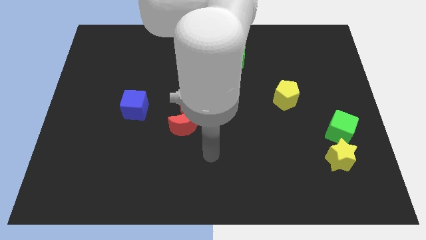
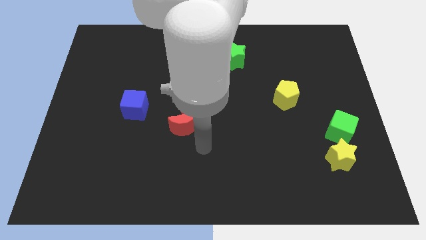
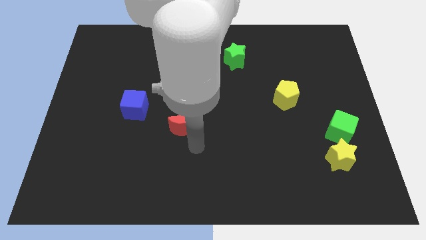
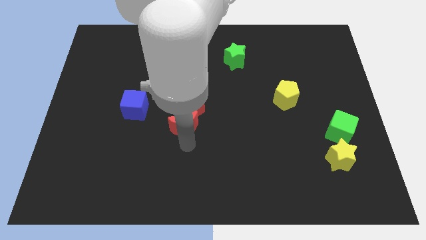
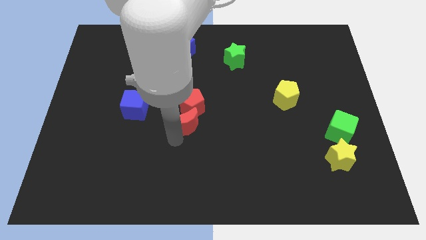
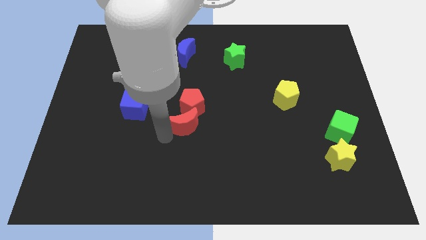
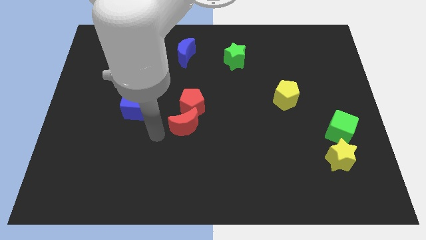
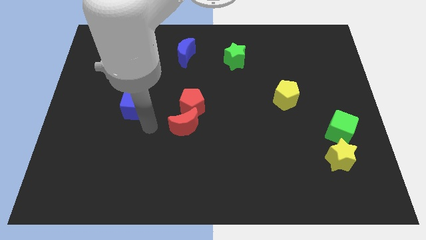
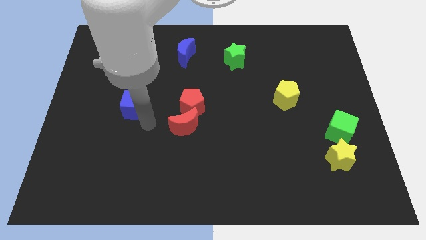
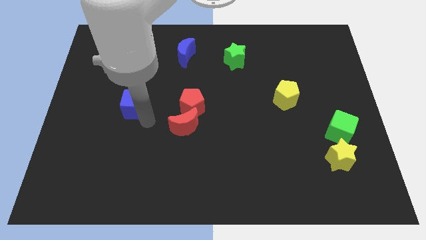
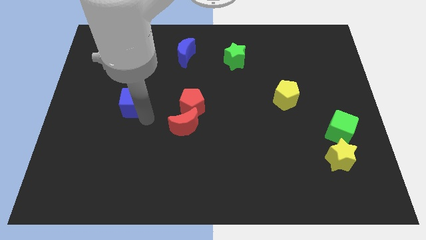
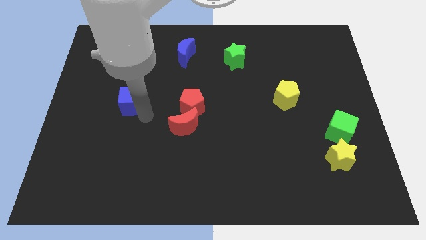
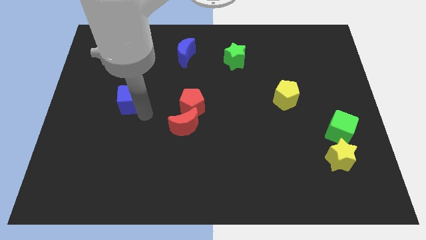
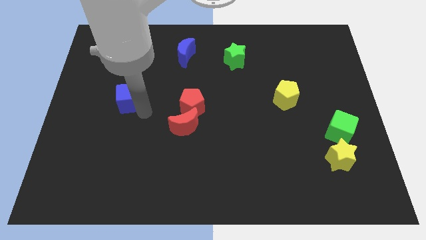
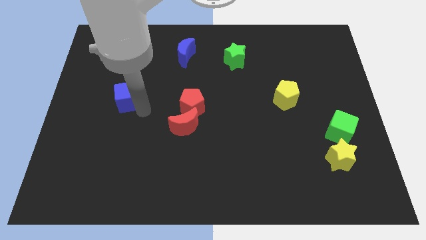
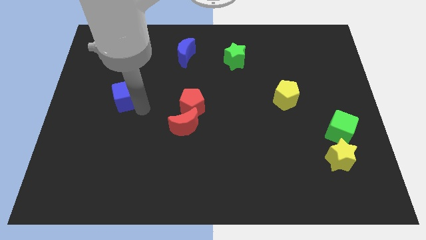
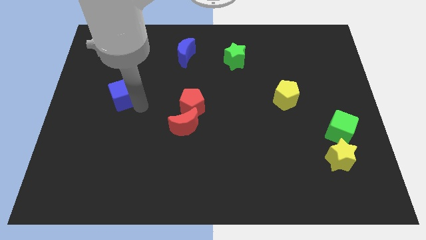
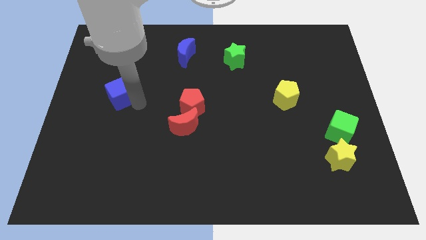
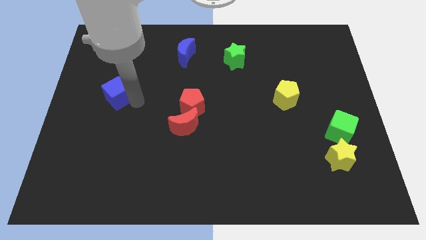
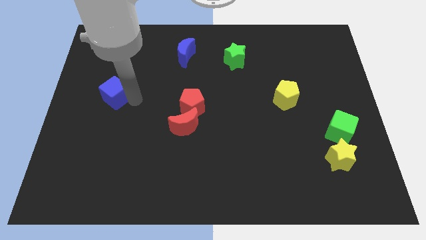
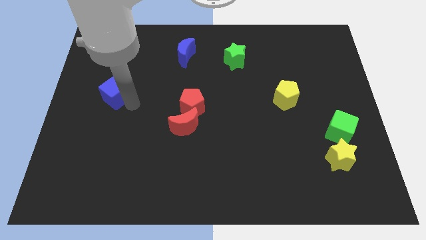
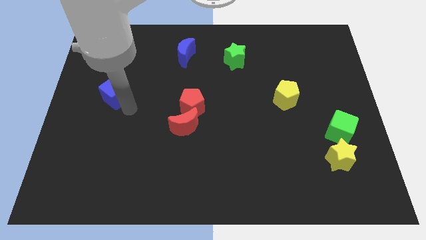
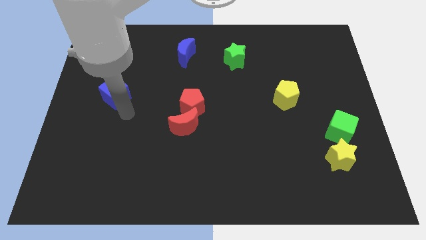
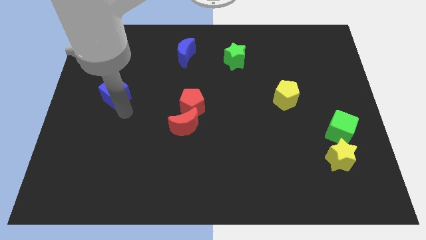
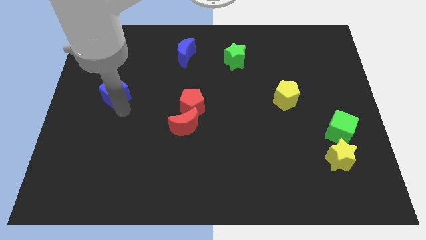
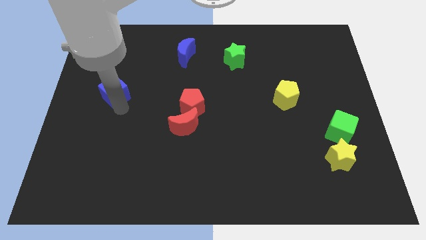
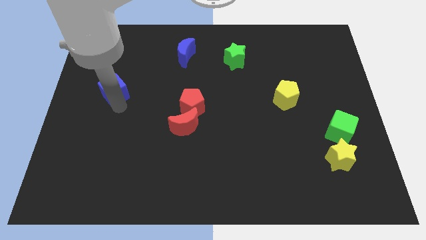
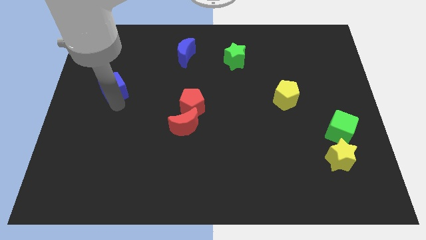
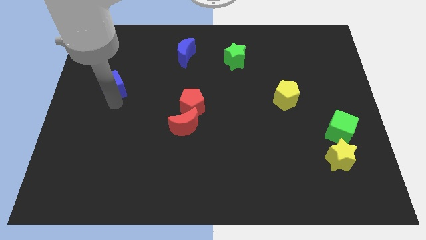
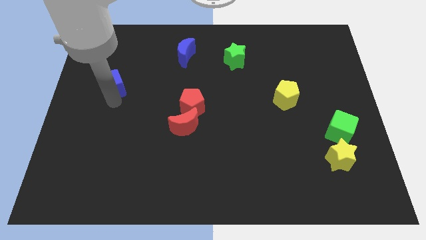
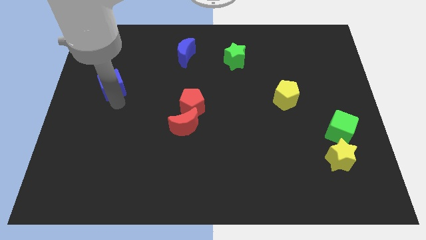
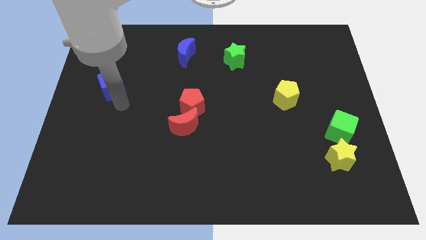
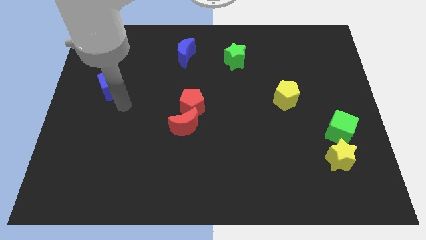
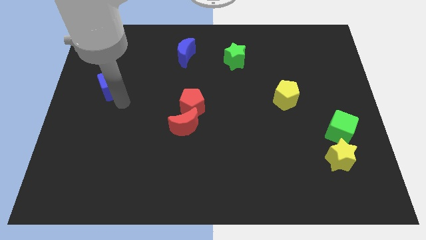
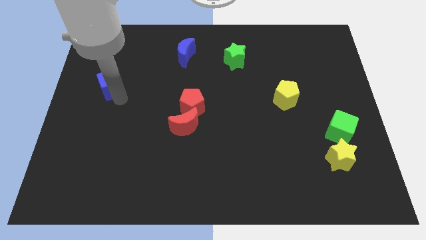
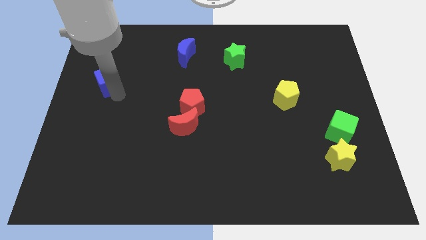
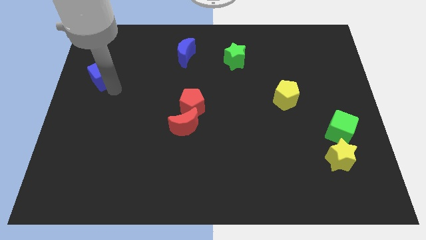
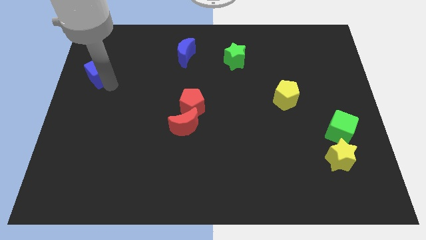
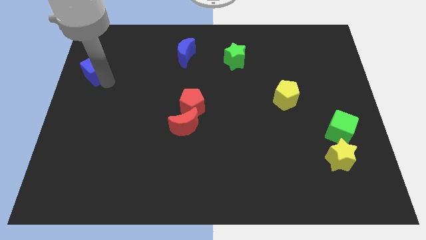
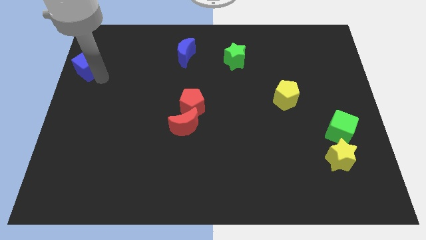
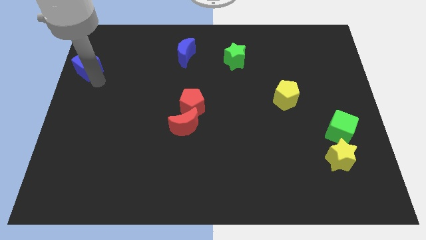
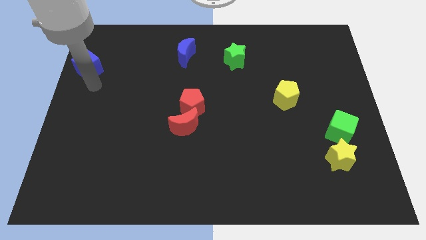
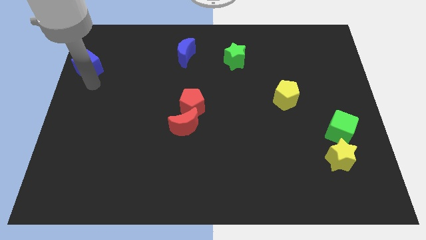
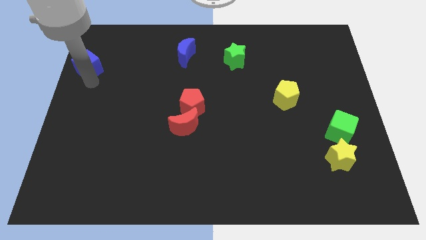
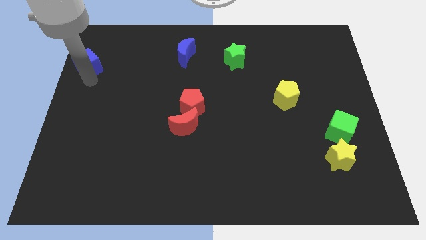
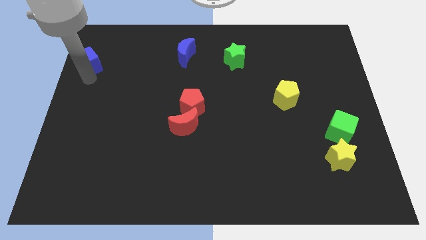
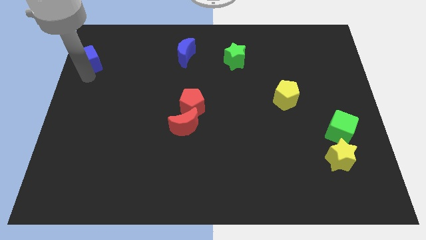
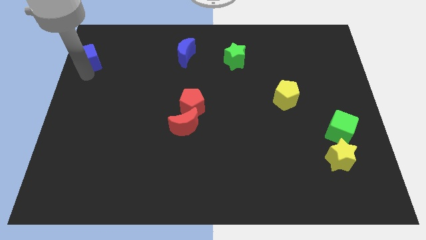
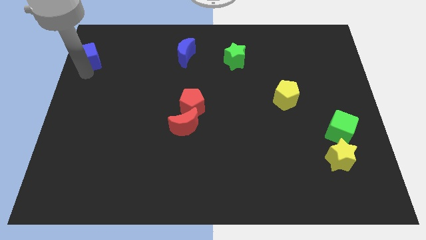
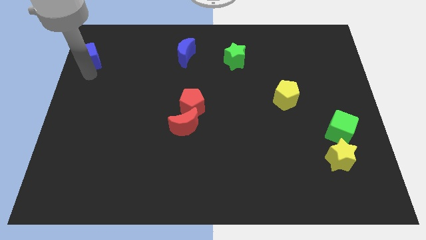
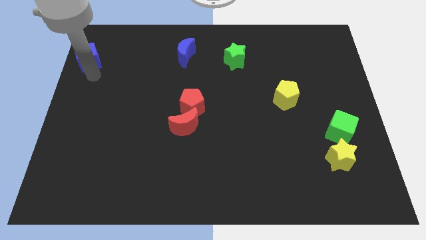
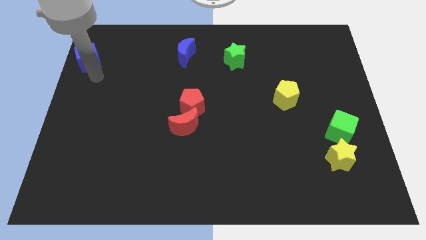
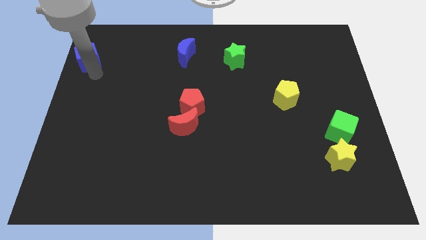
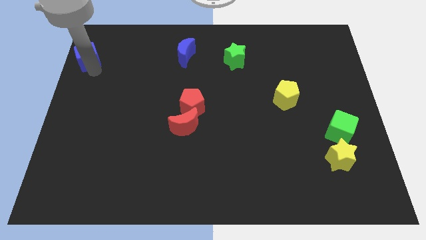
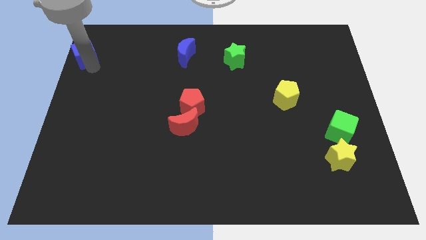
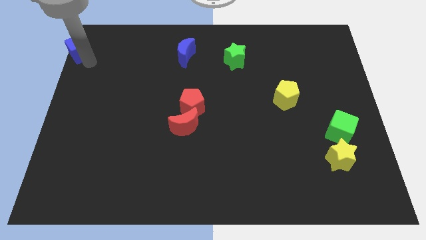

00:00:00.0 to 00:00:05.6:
move the blue cube to the upper left corner
